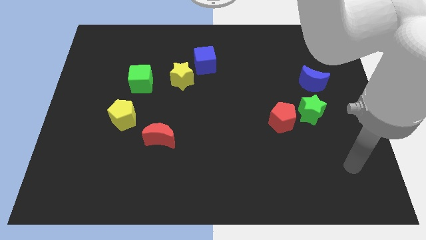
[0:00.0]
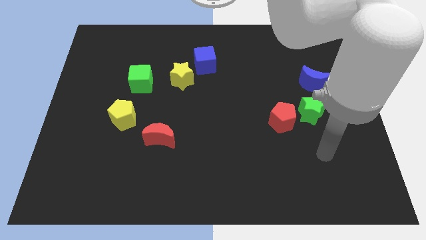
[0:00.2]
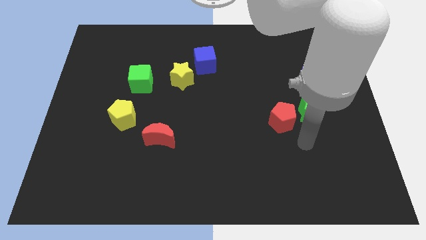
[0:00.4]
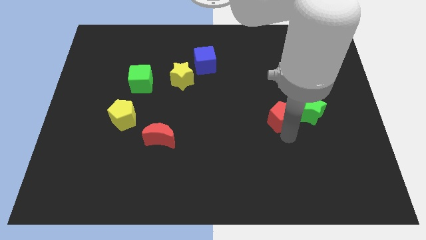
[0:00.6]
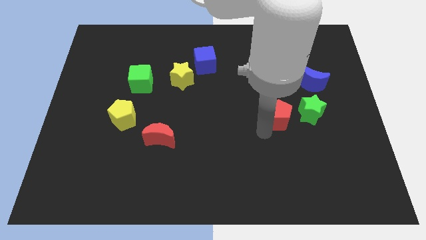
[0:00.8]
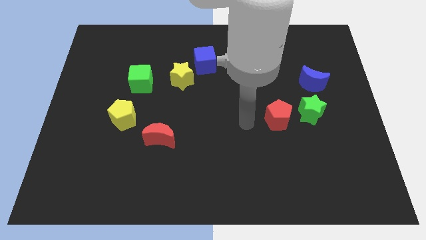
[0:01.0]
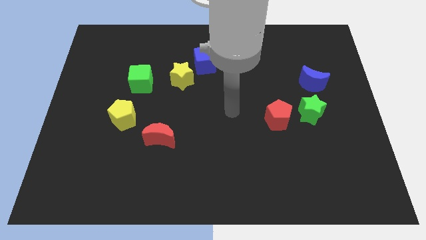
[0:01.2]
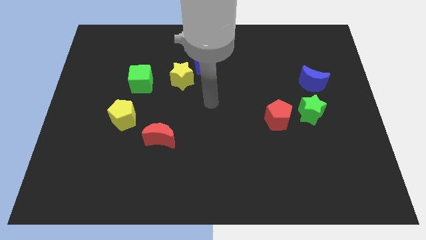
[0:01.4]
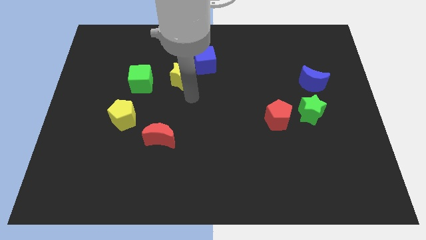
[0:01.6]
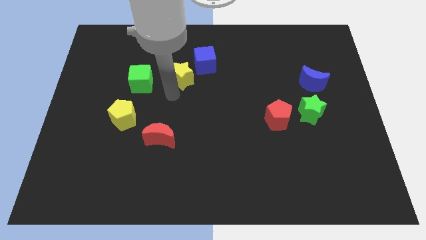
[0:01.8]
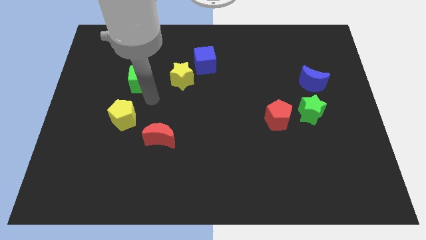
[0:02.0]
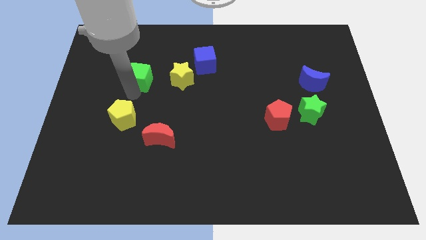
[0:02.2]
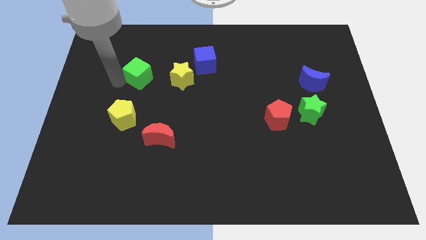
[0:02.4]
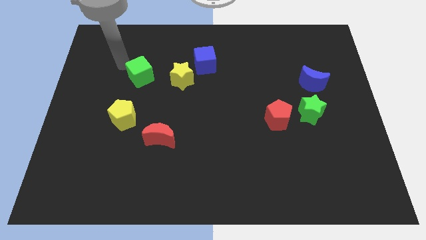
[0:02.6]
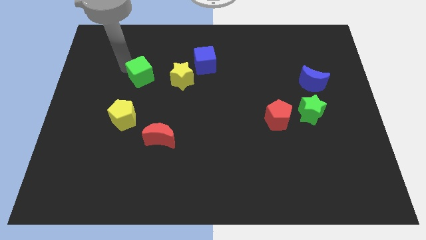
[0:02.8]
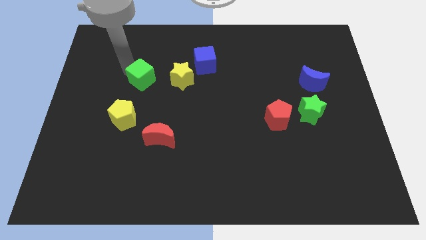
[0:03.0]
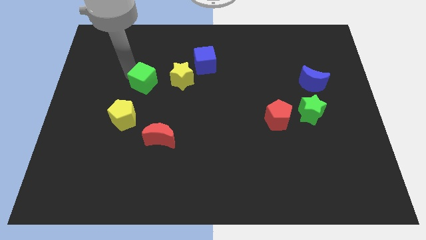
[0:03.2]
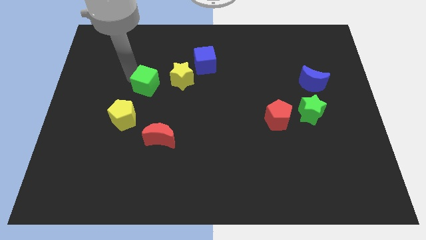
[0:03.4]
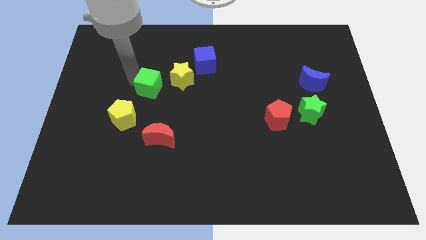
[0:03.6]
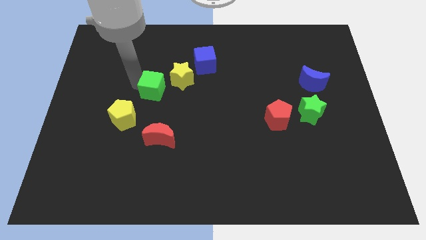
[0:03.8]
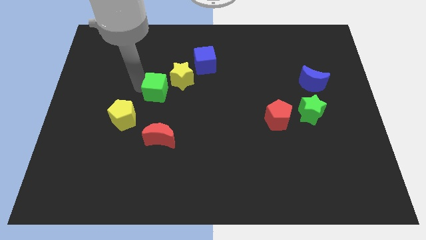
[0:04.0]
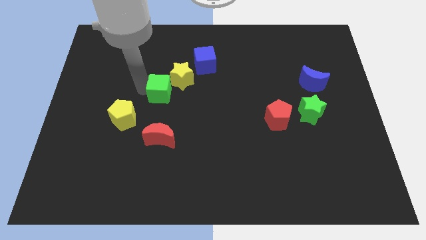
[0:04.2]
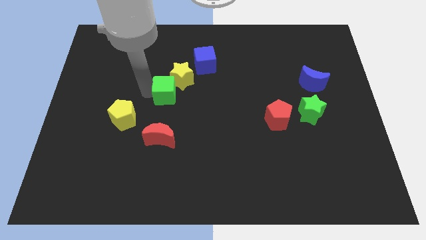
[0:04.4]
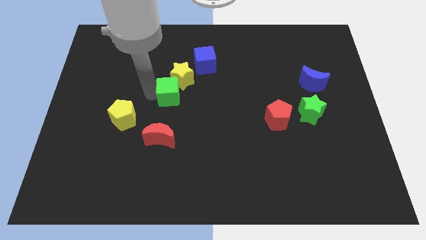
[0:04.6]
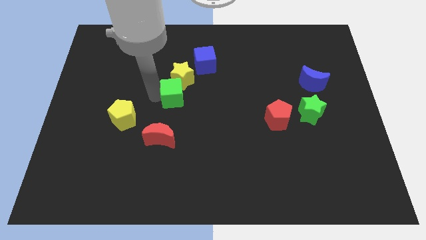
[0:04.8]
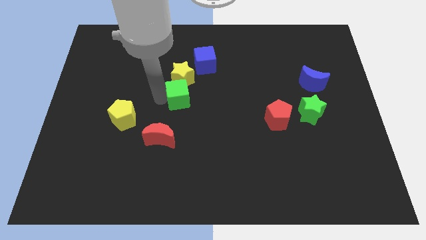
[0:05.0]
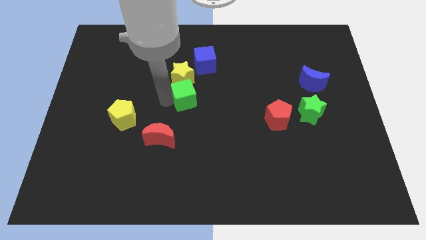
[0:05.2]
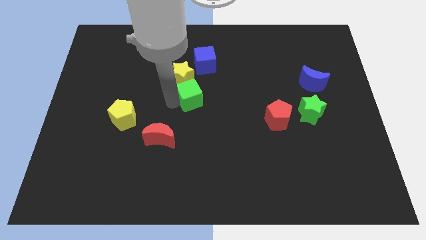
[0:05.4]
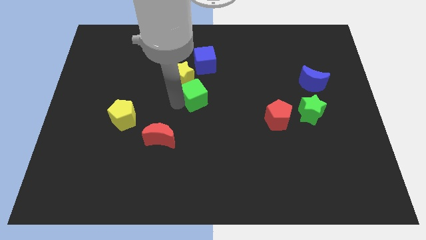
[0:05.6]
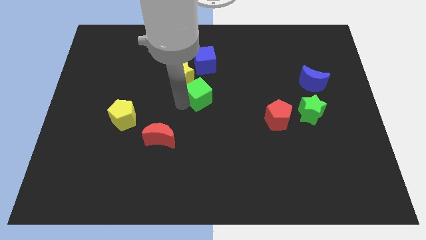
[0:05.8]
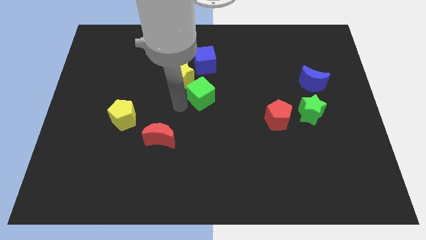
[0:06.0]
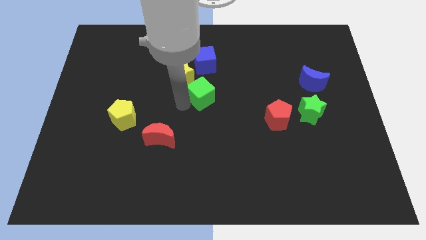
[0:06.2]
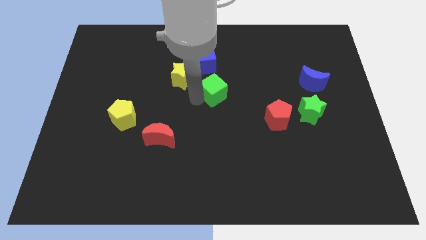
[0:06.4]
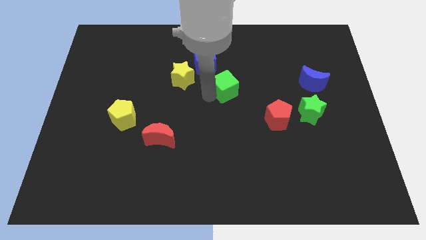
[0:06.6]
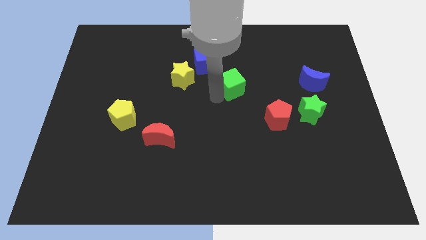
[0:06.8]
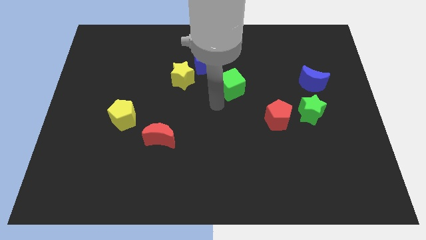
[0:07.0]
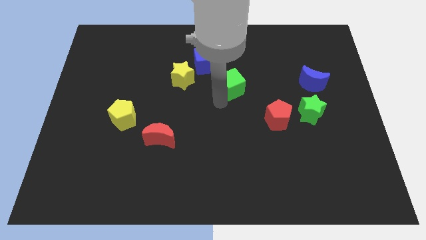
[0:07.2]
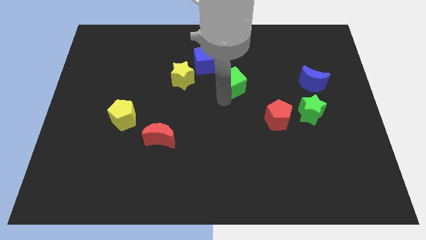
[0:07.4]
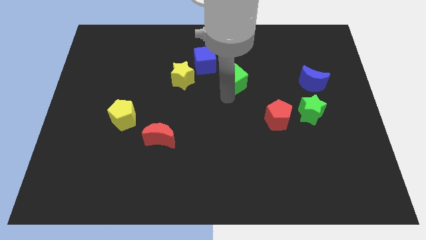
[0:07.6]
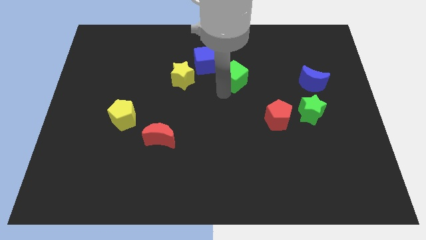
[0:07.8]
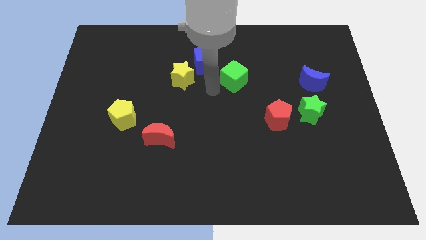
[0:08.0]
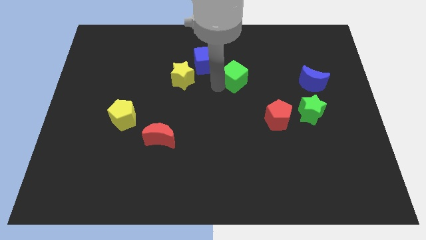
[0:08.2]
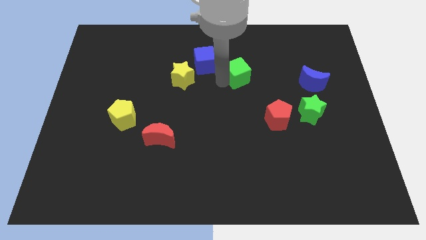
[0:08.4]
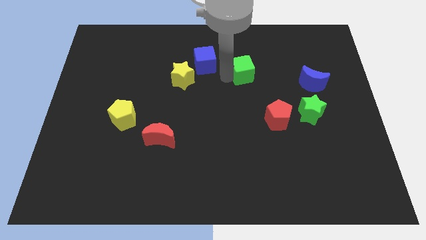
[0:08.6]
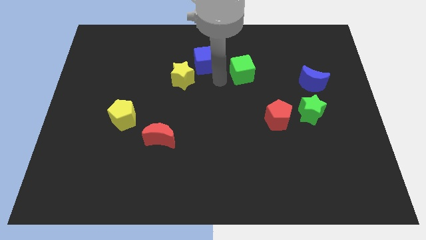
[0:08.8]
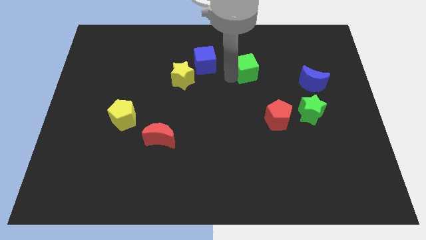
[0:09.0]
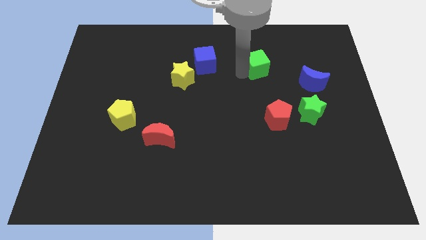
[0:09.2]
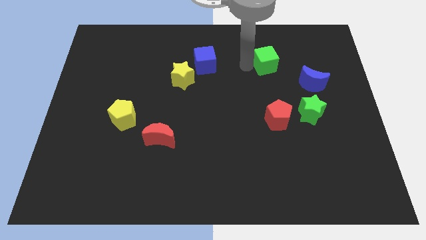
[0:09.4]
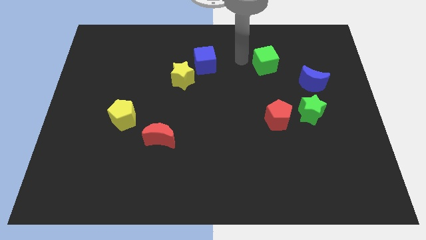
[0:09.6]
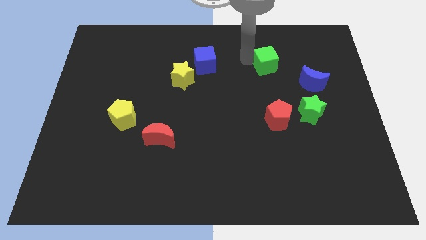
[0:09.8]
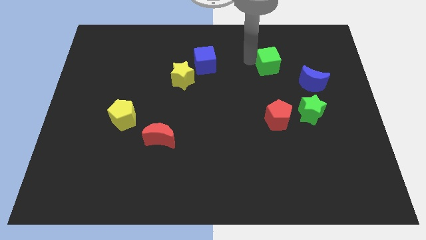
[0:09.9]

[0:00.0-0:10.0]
put the green cube to the top left of the blue moon

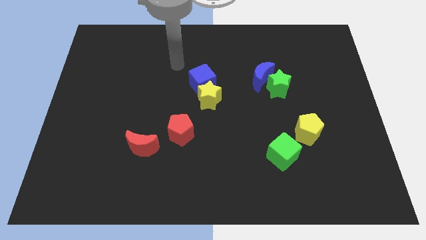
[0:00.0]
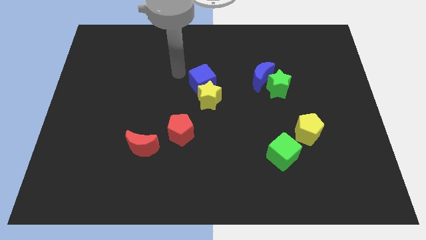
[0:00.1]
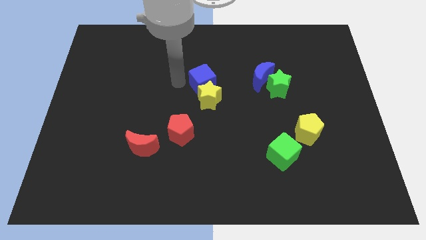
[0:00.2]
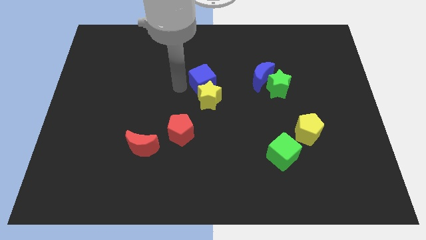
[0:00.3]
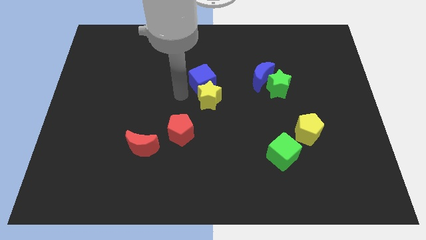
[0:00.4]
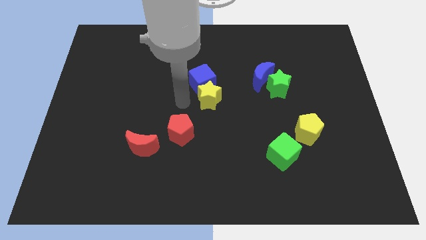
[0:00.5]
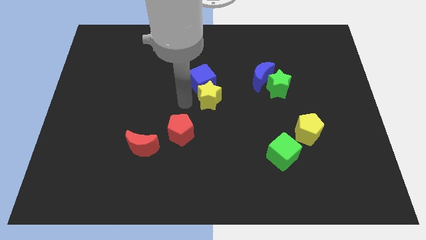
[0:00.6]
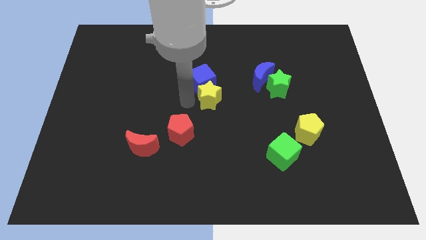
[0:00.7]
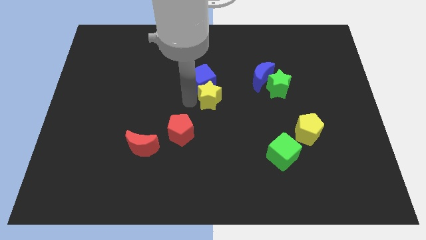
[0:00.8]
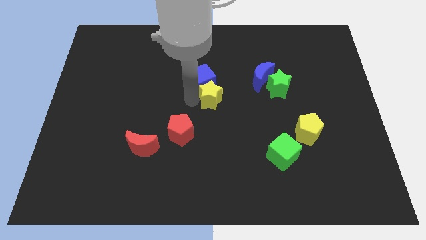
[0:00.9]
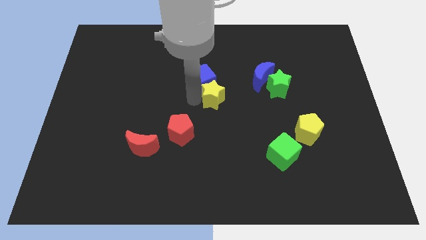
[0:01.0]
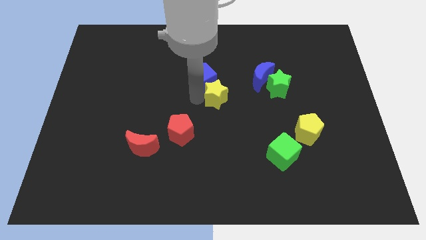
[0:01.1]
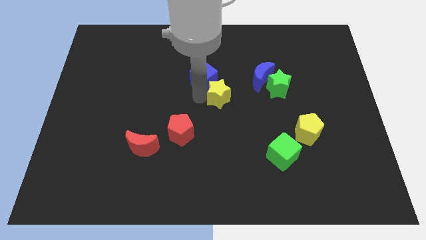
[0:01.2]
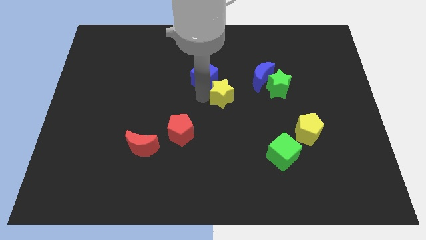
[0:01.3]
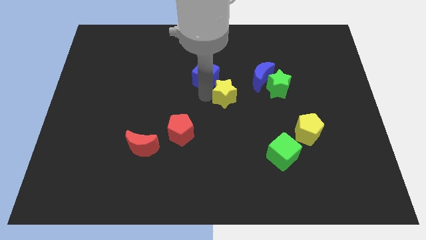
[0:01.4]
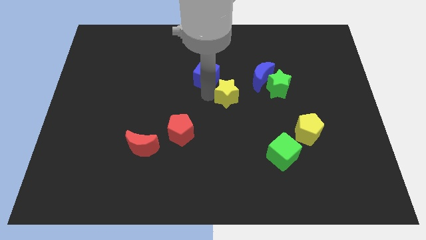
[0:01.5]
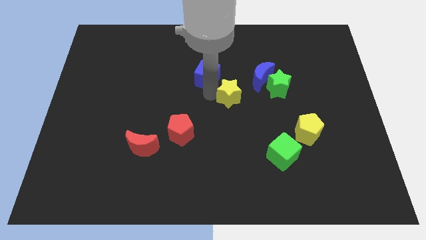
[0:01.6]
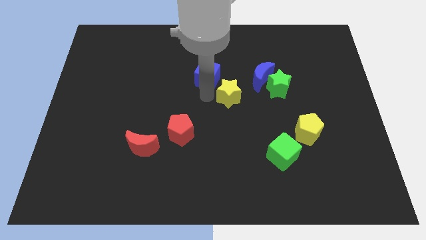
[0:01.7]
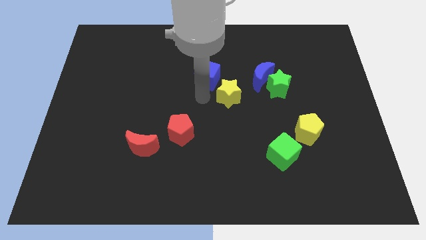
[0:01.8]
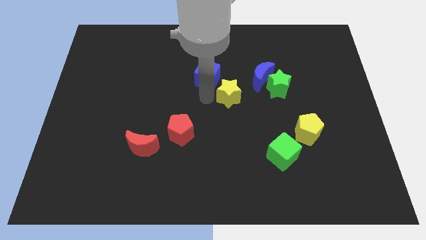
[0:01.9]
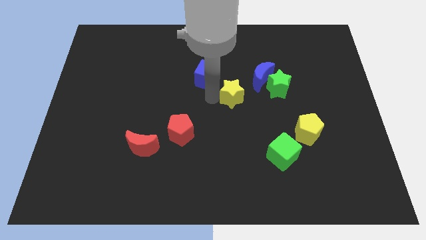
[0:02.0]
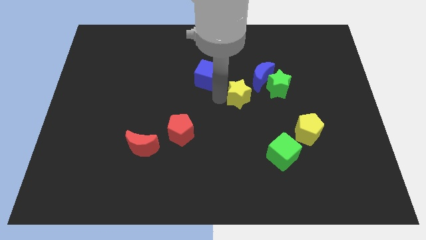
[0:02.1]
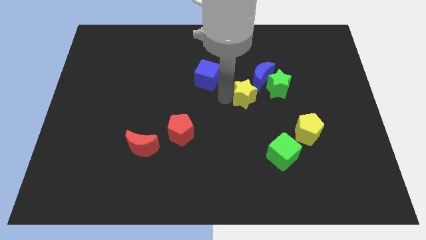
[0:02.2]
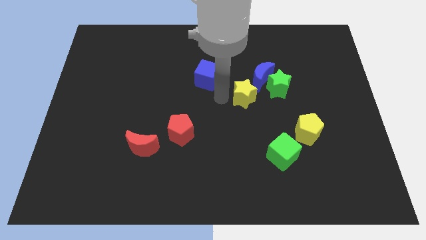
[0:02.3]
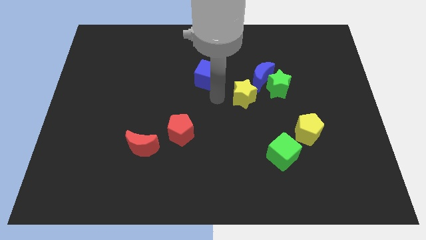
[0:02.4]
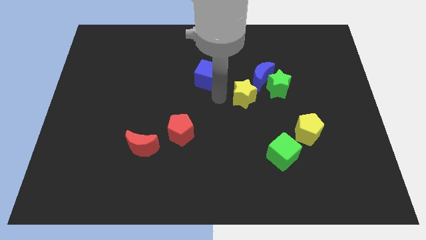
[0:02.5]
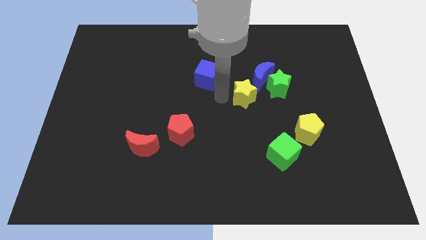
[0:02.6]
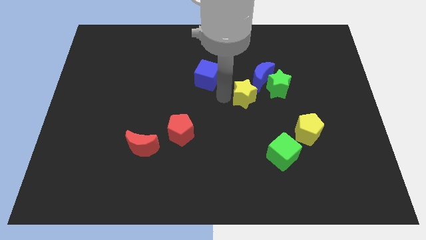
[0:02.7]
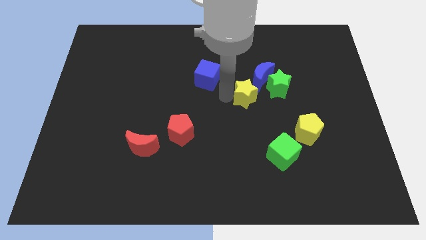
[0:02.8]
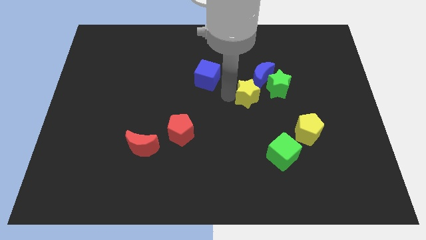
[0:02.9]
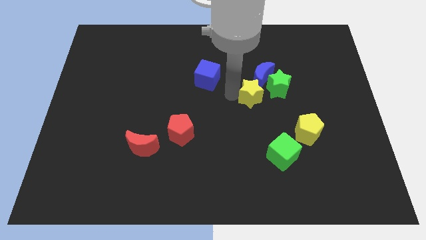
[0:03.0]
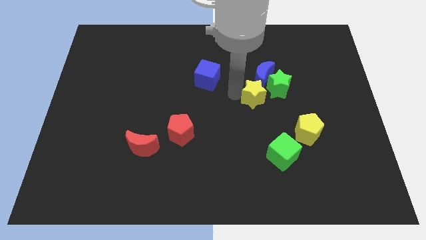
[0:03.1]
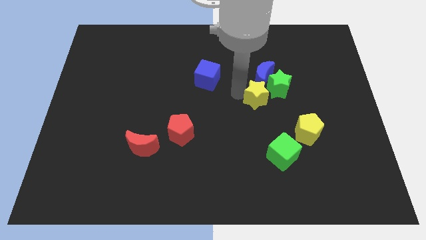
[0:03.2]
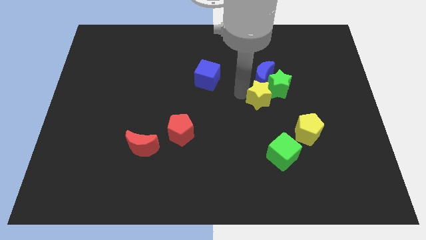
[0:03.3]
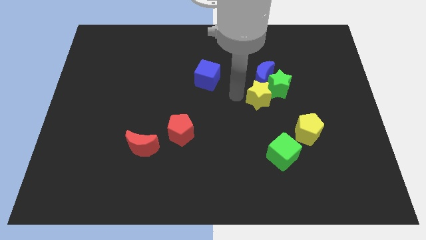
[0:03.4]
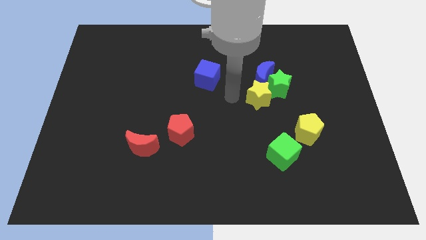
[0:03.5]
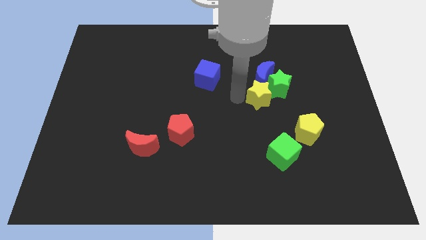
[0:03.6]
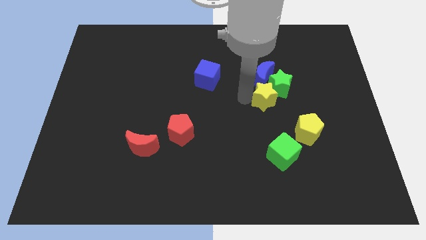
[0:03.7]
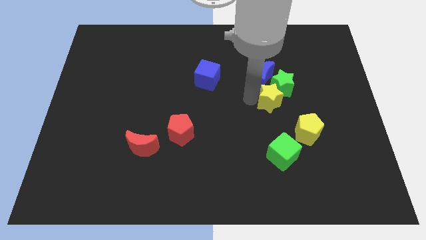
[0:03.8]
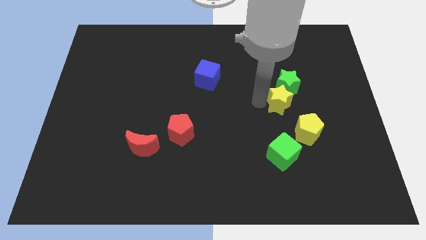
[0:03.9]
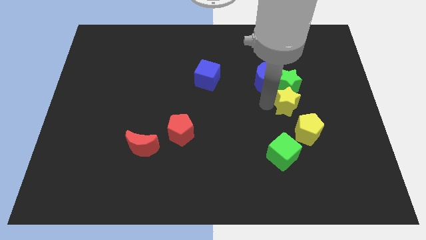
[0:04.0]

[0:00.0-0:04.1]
put the yellow star to the top of the yellow pentagon
